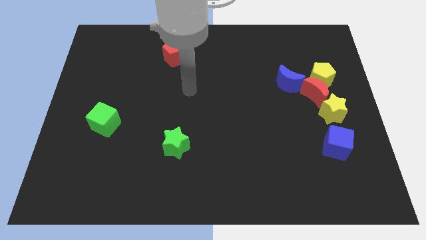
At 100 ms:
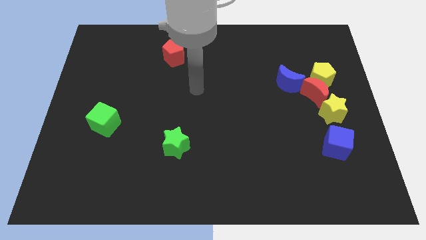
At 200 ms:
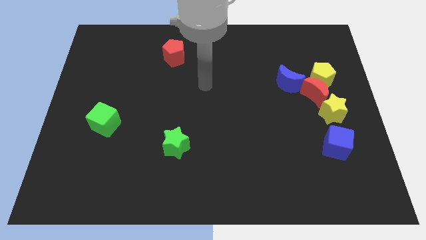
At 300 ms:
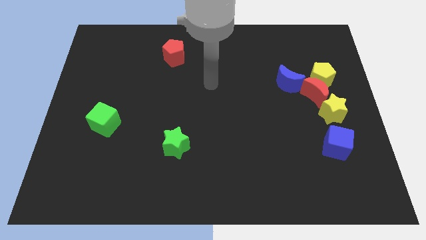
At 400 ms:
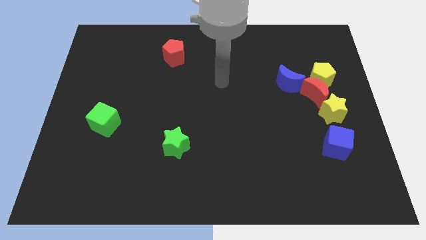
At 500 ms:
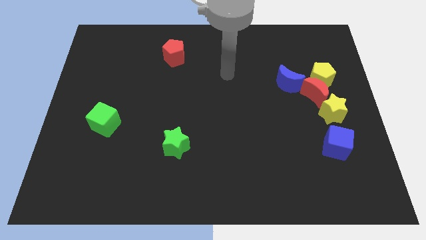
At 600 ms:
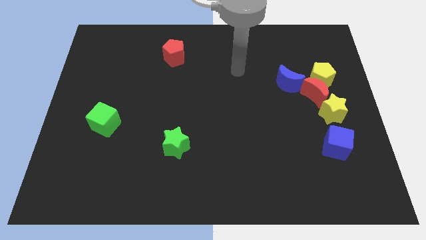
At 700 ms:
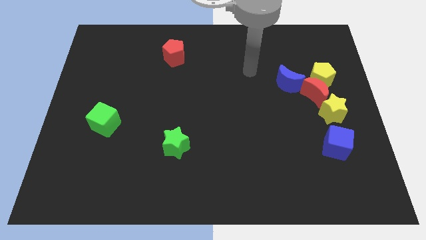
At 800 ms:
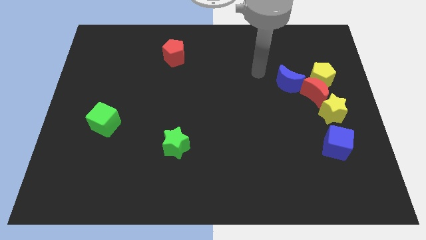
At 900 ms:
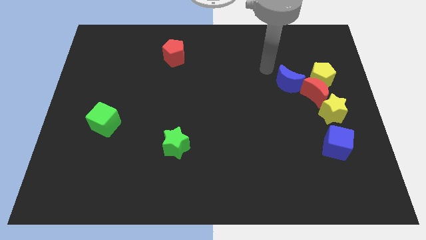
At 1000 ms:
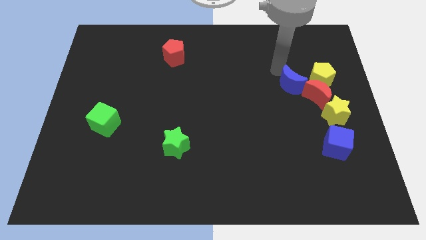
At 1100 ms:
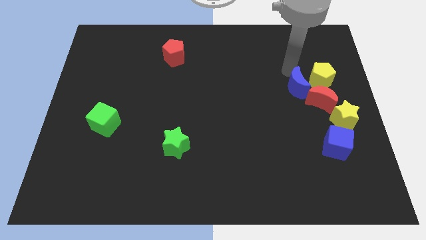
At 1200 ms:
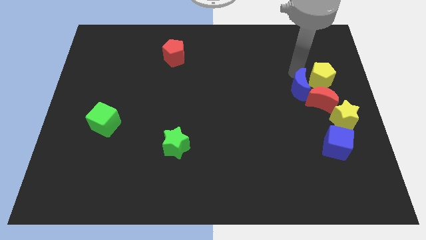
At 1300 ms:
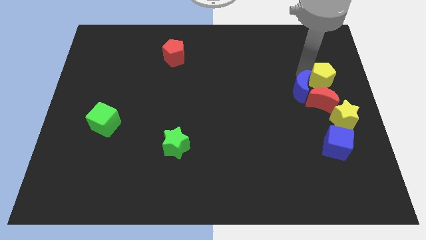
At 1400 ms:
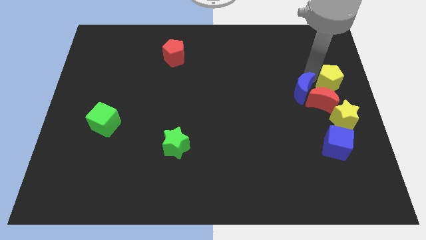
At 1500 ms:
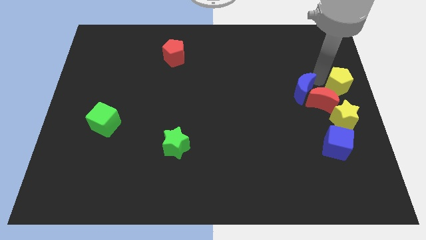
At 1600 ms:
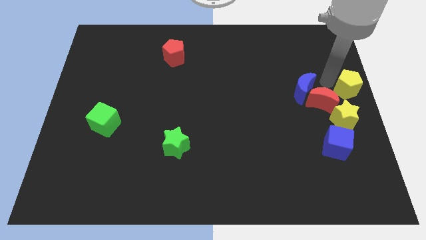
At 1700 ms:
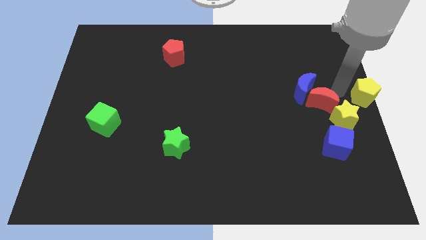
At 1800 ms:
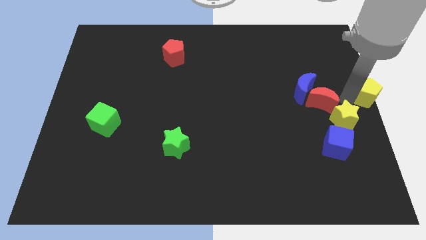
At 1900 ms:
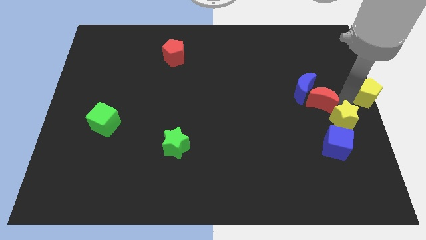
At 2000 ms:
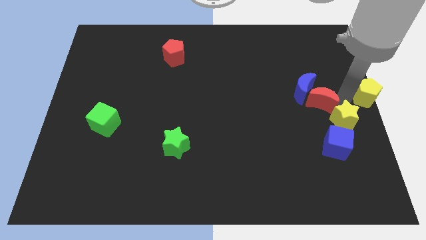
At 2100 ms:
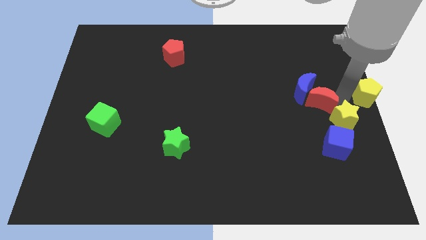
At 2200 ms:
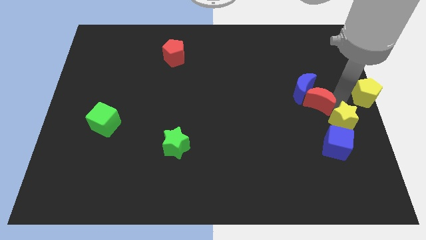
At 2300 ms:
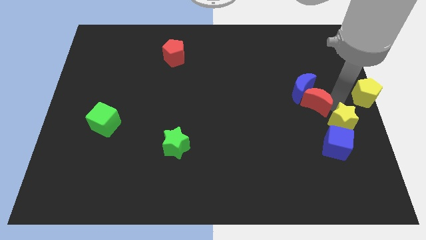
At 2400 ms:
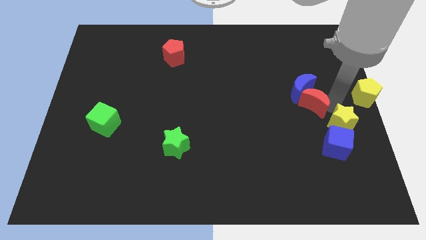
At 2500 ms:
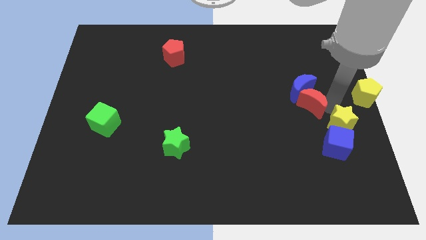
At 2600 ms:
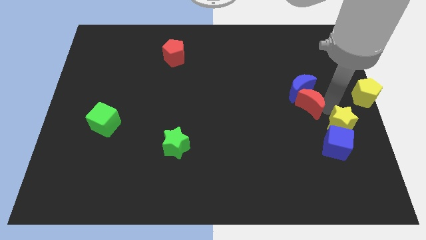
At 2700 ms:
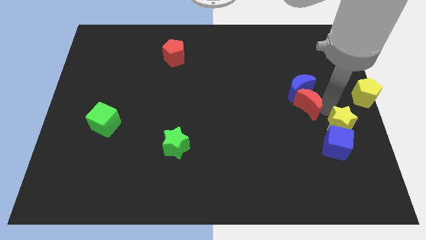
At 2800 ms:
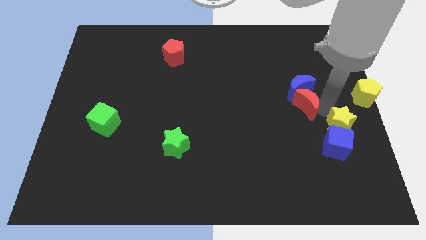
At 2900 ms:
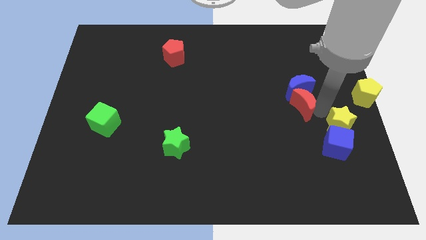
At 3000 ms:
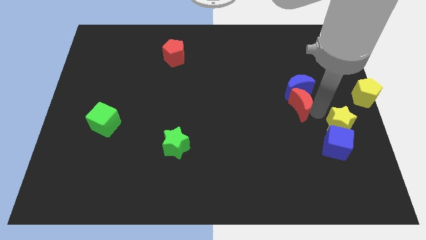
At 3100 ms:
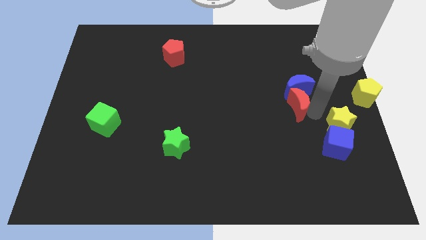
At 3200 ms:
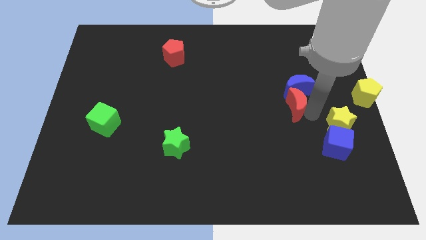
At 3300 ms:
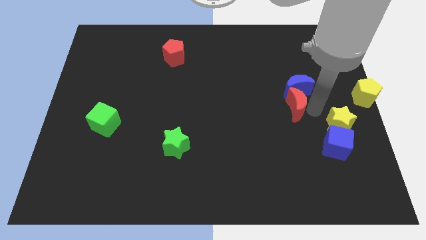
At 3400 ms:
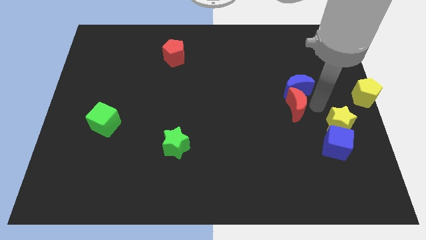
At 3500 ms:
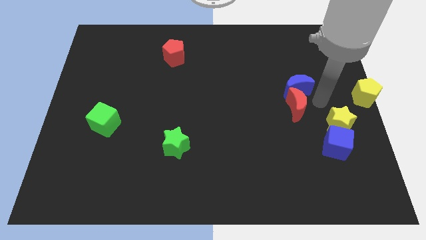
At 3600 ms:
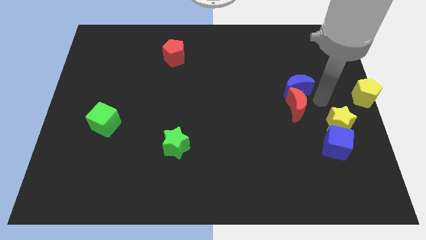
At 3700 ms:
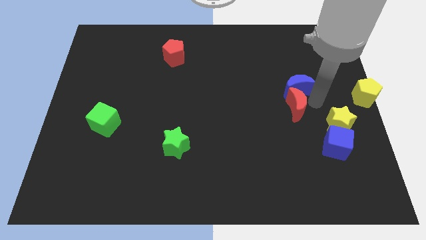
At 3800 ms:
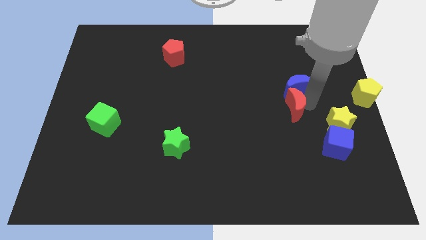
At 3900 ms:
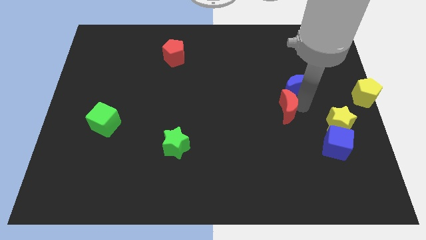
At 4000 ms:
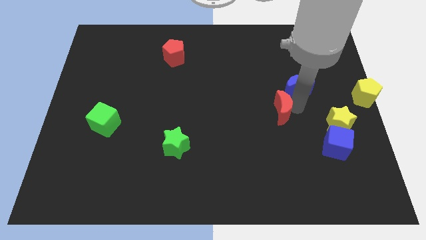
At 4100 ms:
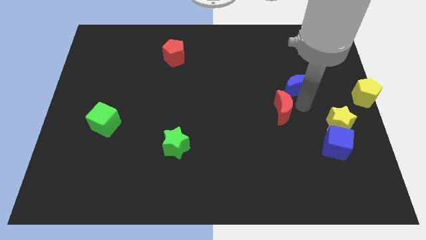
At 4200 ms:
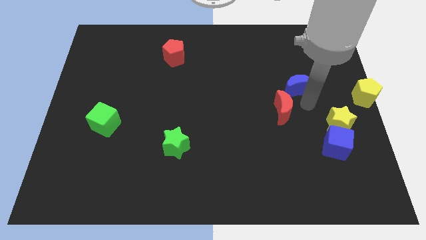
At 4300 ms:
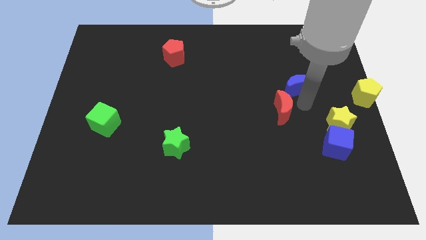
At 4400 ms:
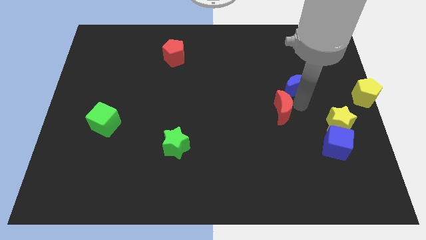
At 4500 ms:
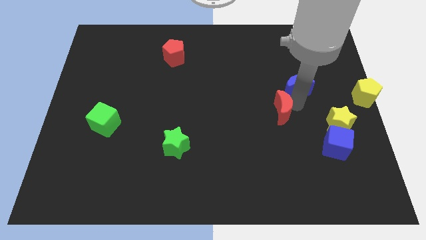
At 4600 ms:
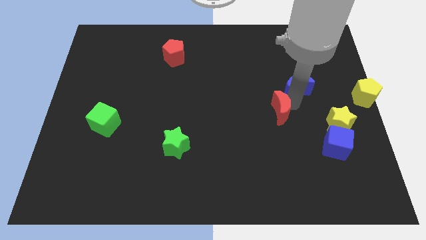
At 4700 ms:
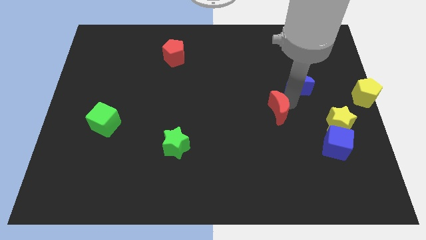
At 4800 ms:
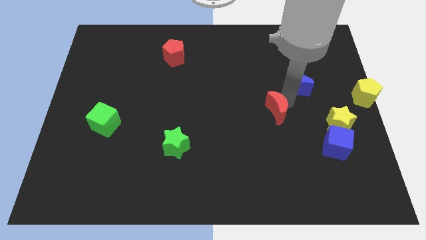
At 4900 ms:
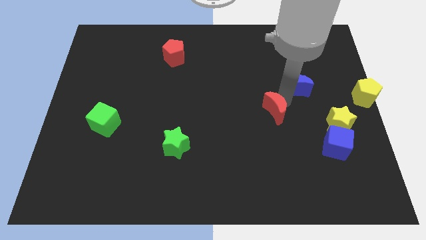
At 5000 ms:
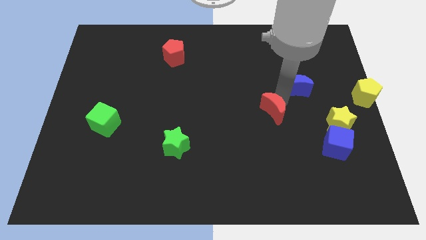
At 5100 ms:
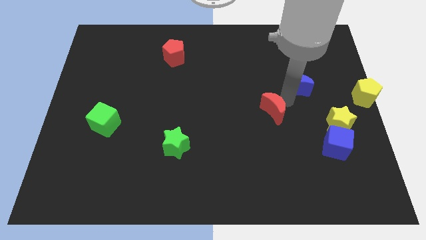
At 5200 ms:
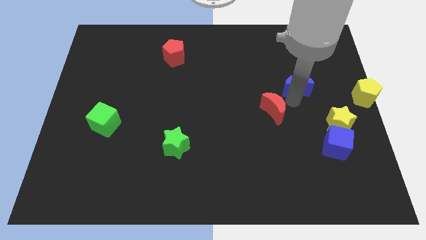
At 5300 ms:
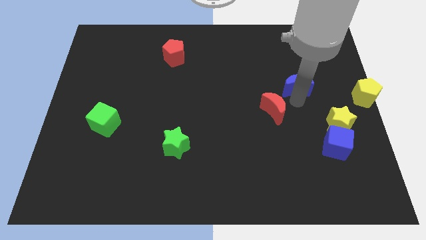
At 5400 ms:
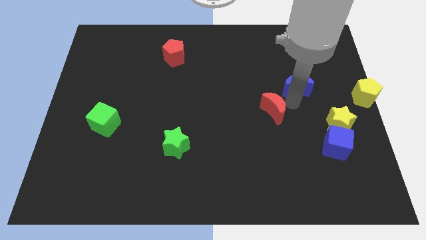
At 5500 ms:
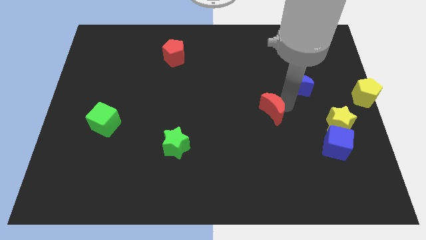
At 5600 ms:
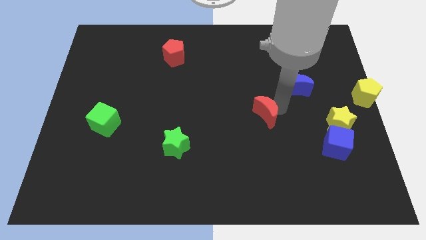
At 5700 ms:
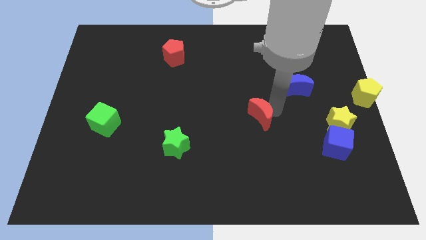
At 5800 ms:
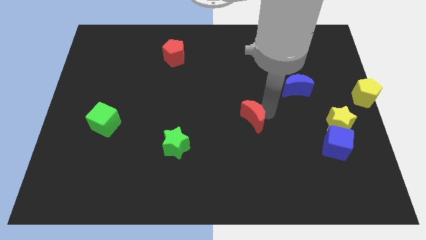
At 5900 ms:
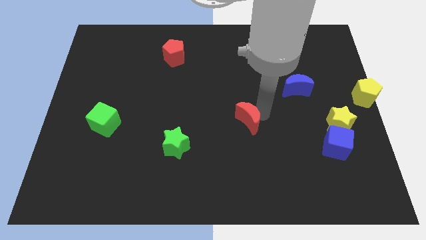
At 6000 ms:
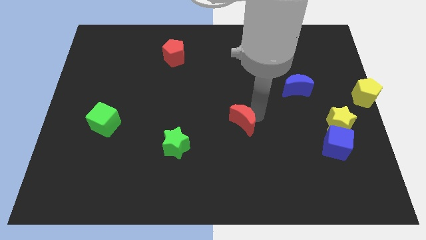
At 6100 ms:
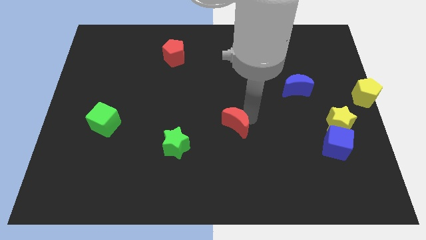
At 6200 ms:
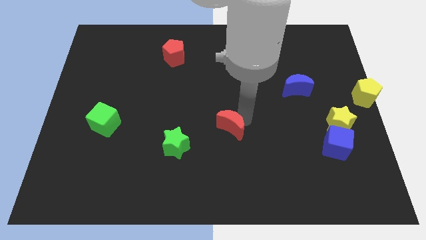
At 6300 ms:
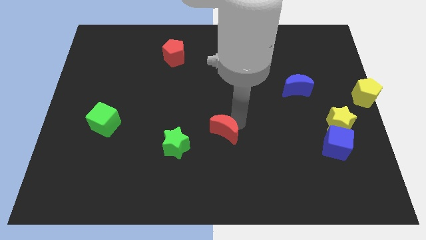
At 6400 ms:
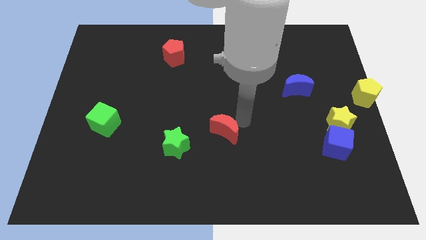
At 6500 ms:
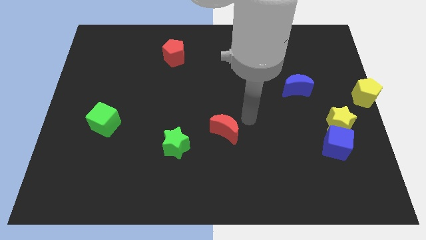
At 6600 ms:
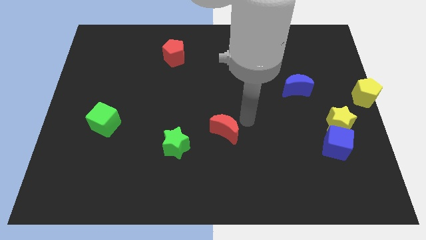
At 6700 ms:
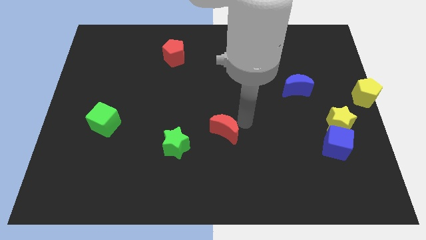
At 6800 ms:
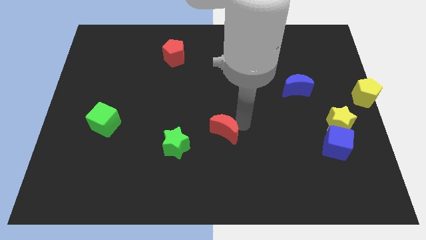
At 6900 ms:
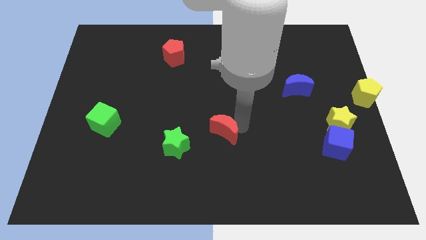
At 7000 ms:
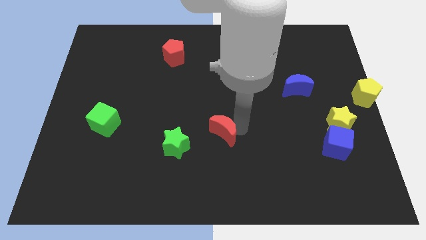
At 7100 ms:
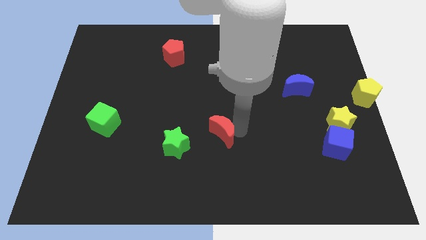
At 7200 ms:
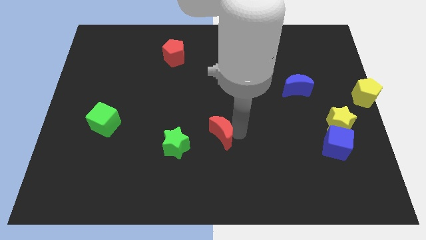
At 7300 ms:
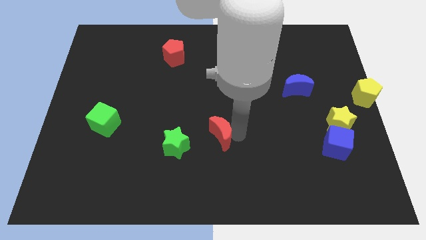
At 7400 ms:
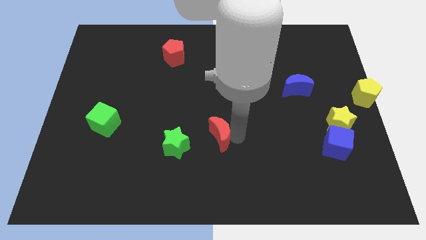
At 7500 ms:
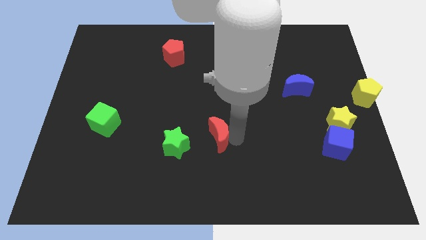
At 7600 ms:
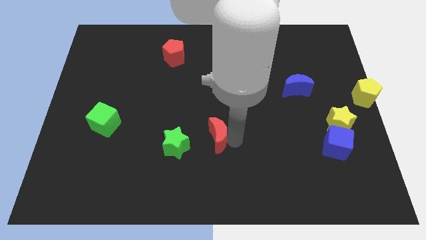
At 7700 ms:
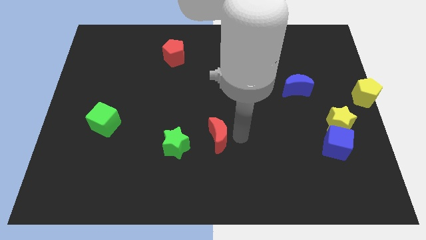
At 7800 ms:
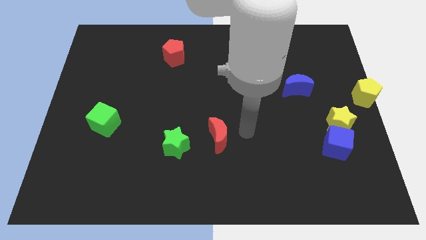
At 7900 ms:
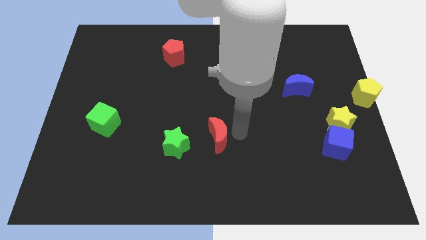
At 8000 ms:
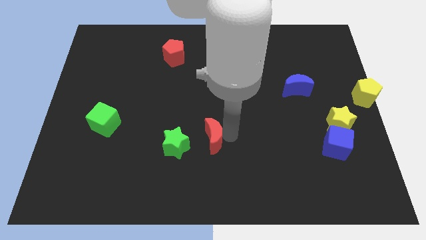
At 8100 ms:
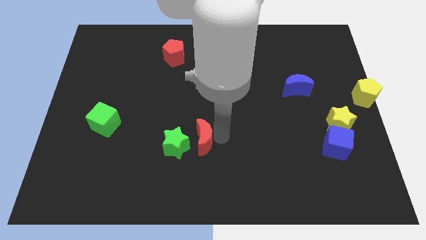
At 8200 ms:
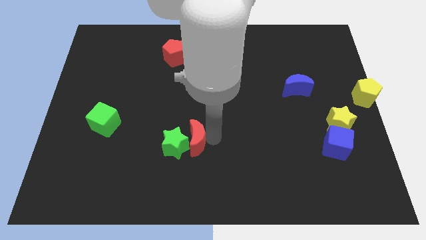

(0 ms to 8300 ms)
move the red moon towards the green star
